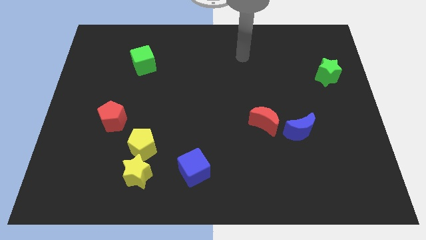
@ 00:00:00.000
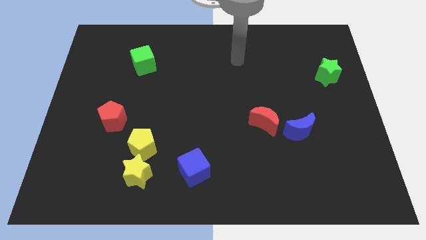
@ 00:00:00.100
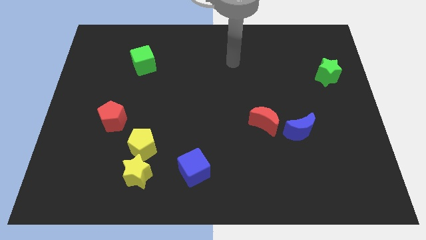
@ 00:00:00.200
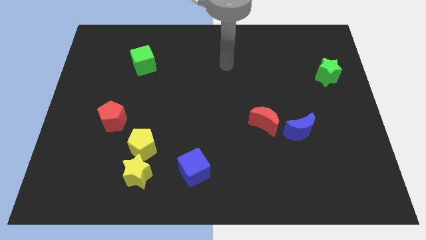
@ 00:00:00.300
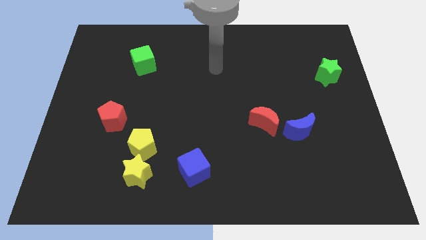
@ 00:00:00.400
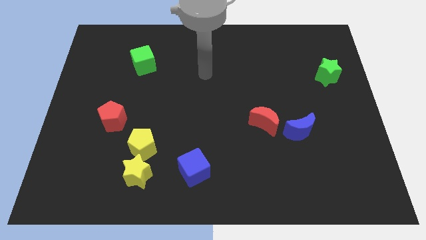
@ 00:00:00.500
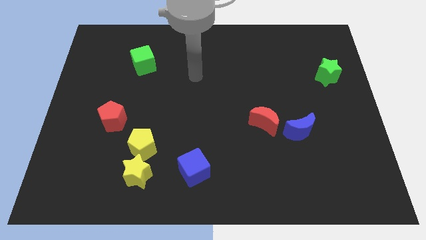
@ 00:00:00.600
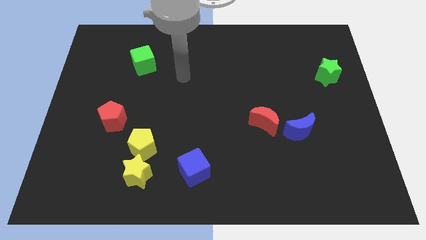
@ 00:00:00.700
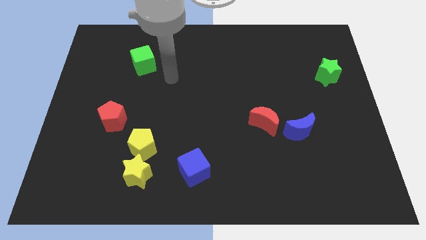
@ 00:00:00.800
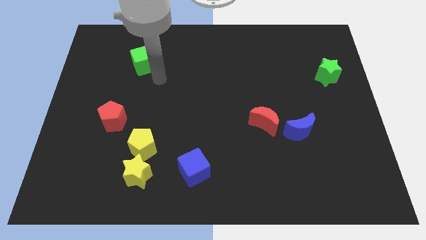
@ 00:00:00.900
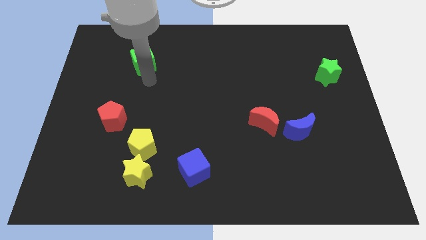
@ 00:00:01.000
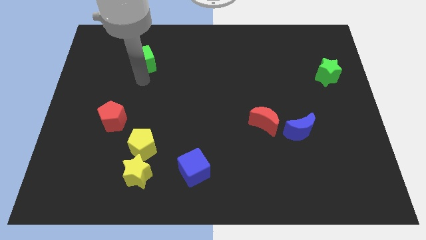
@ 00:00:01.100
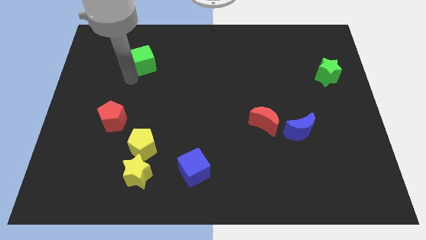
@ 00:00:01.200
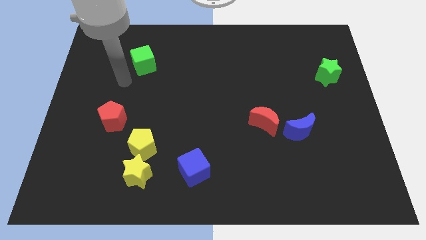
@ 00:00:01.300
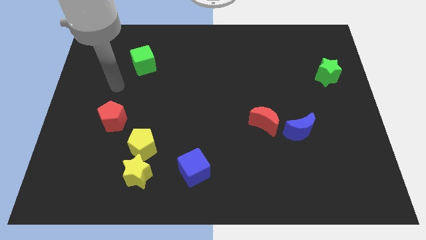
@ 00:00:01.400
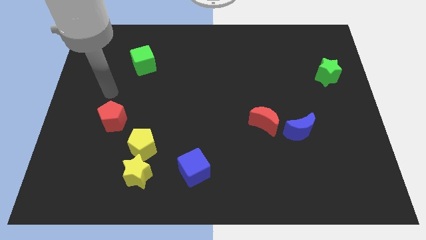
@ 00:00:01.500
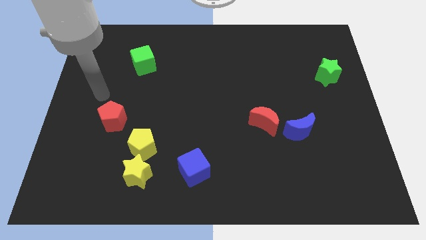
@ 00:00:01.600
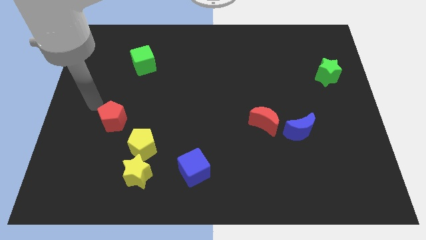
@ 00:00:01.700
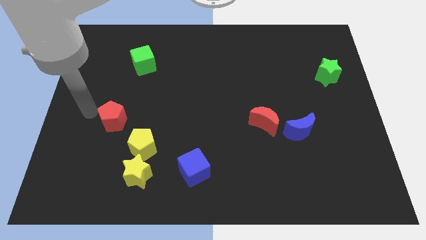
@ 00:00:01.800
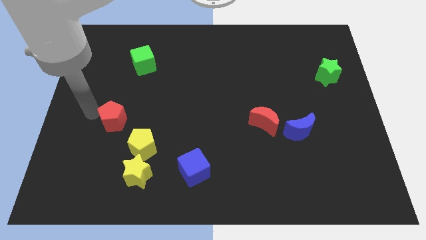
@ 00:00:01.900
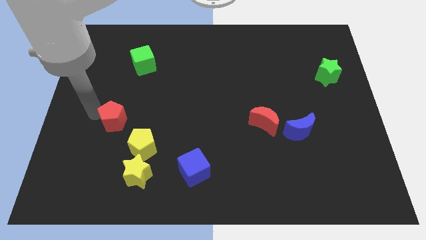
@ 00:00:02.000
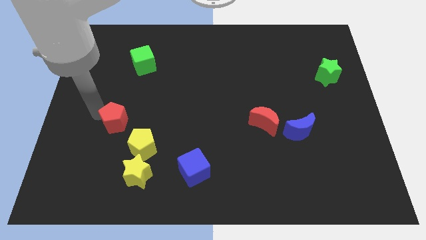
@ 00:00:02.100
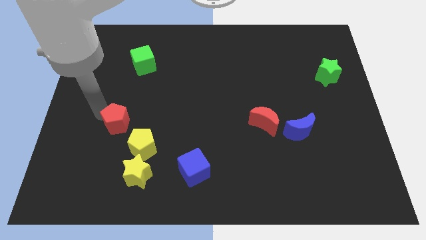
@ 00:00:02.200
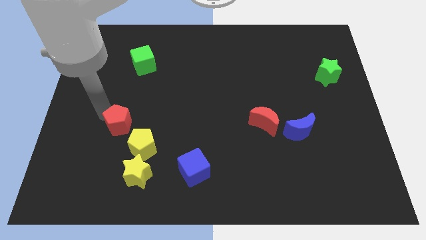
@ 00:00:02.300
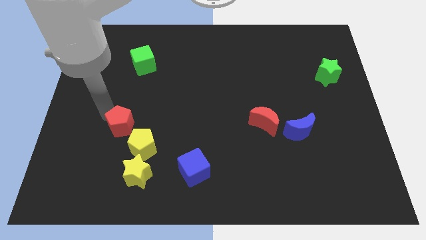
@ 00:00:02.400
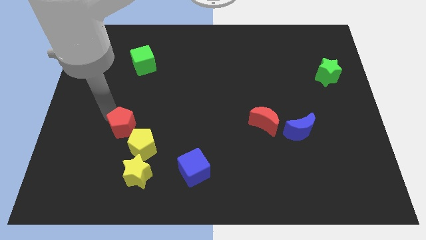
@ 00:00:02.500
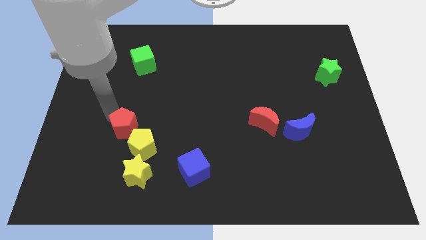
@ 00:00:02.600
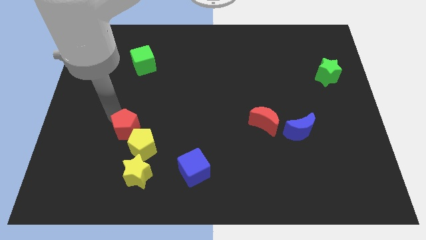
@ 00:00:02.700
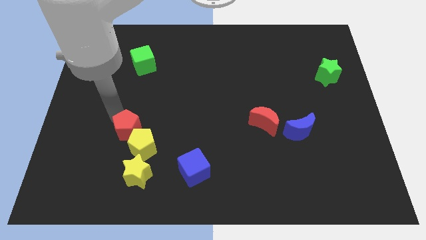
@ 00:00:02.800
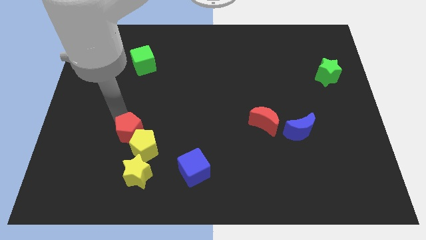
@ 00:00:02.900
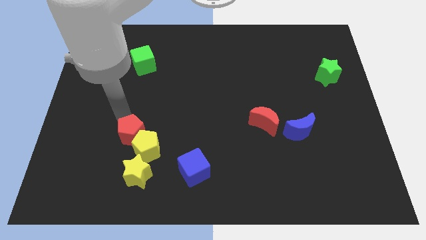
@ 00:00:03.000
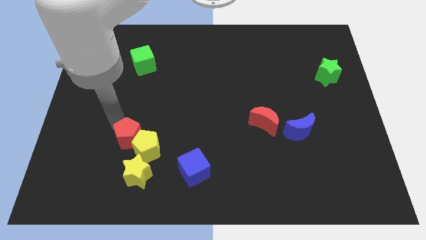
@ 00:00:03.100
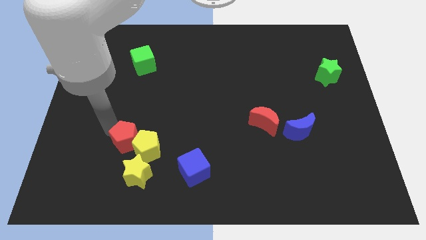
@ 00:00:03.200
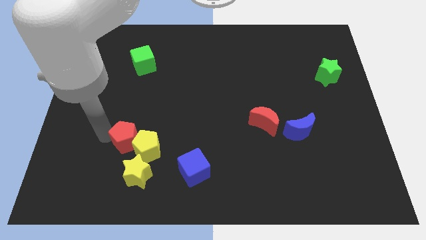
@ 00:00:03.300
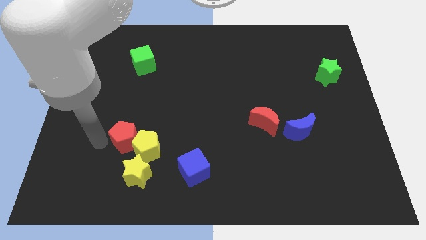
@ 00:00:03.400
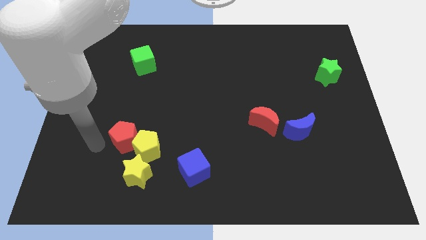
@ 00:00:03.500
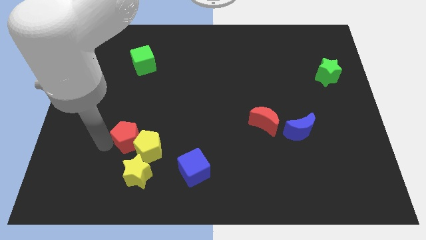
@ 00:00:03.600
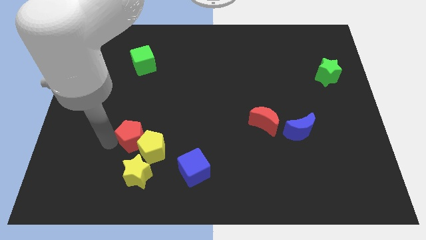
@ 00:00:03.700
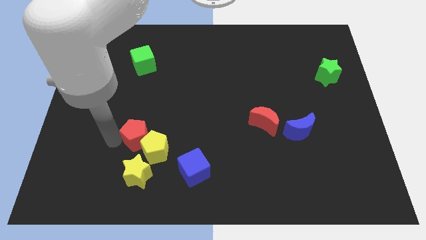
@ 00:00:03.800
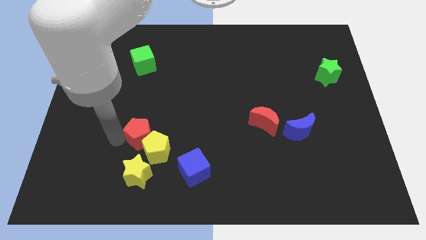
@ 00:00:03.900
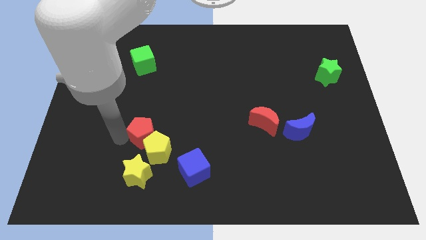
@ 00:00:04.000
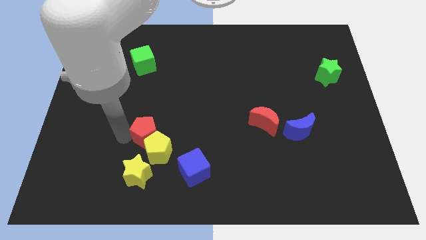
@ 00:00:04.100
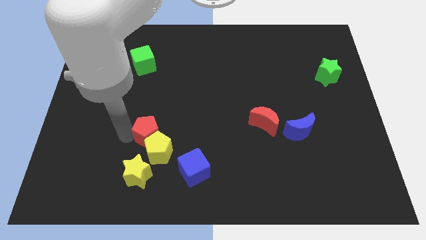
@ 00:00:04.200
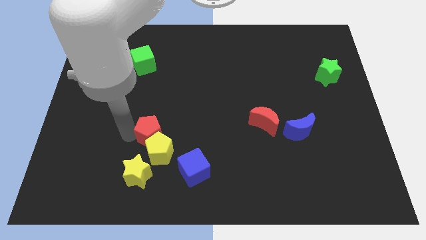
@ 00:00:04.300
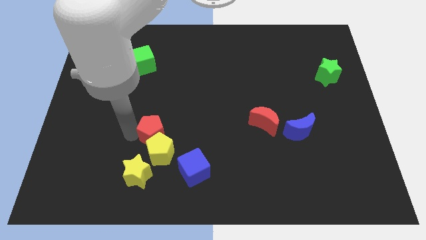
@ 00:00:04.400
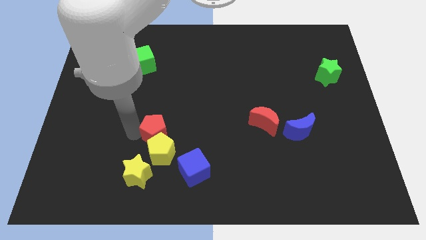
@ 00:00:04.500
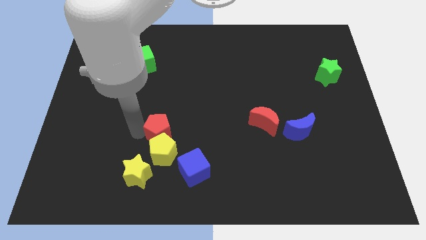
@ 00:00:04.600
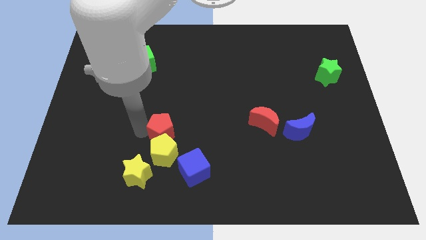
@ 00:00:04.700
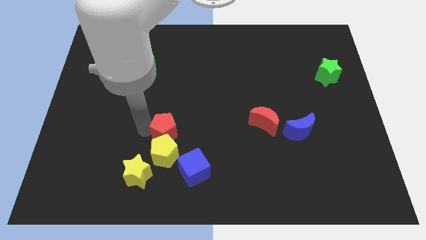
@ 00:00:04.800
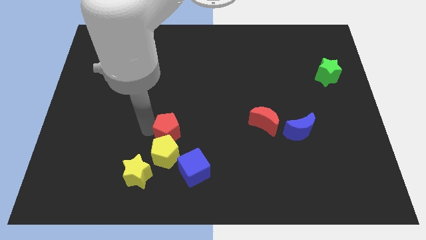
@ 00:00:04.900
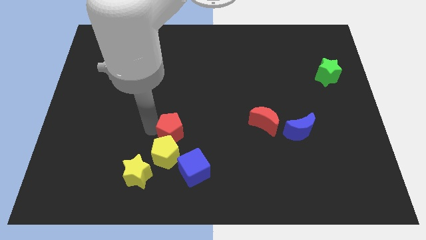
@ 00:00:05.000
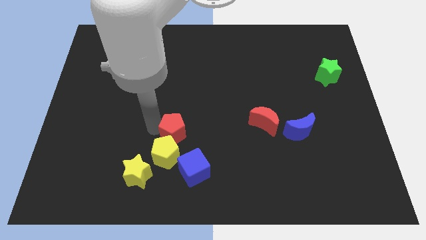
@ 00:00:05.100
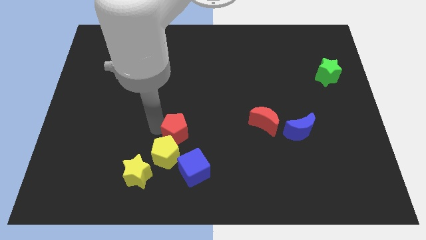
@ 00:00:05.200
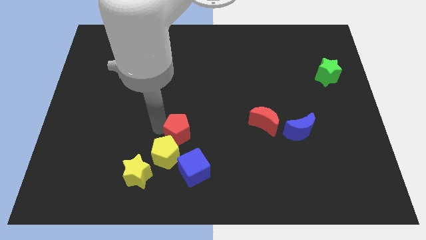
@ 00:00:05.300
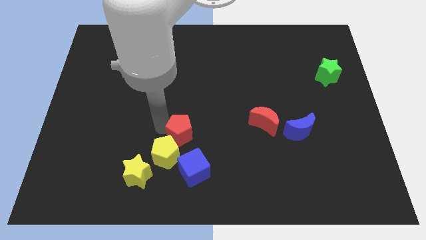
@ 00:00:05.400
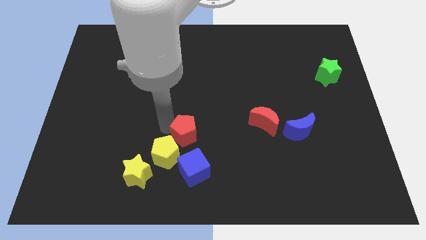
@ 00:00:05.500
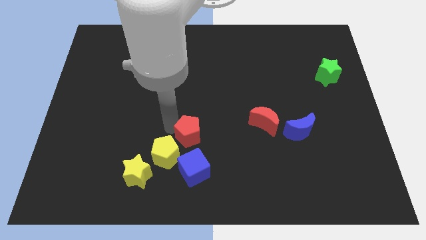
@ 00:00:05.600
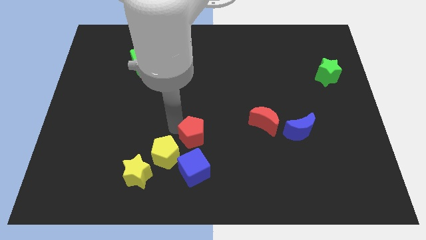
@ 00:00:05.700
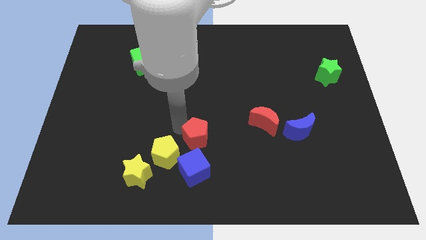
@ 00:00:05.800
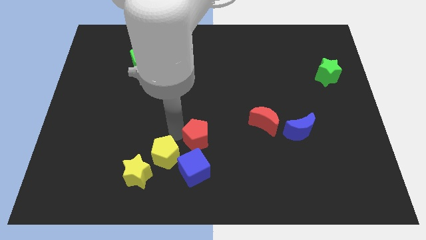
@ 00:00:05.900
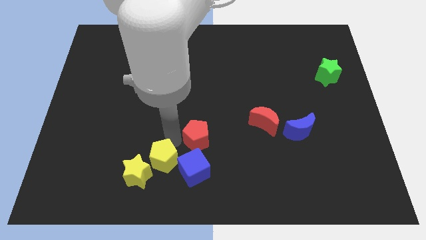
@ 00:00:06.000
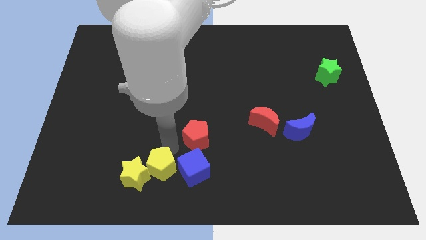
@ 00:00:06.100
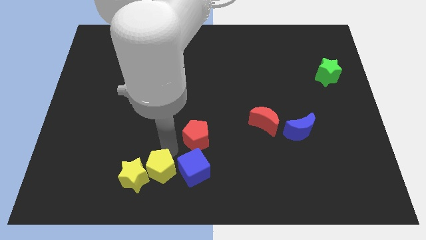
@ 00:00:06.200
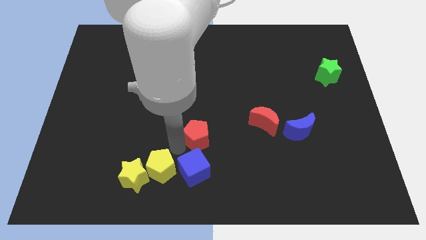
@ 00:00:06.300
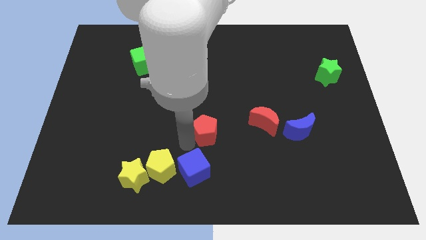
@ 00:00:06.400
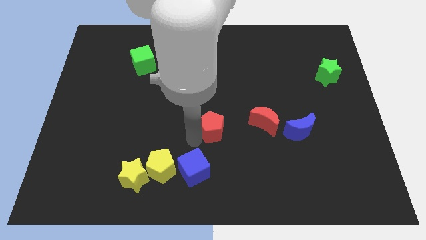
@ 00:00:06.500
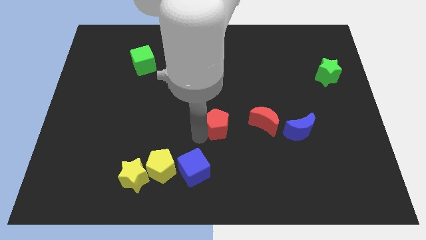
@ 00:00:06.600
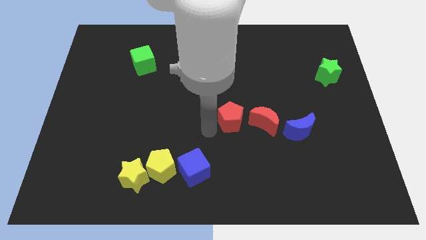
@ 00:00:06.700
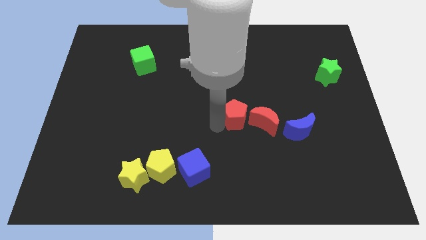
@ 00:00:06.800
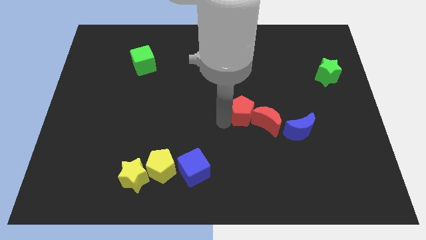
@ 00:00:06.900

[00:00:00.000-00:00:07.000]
put the red pentagon close to the red moon

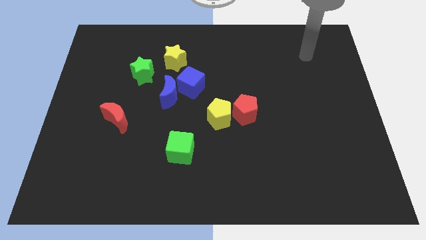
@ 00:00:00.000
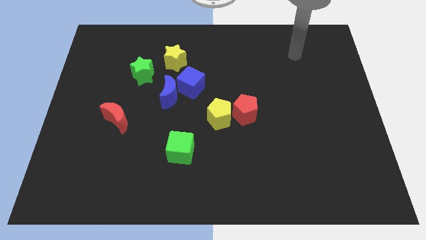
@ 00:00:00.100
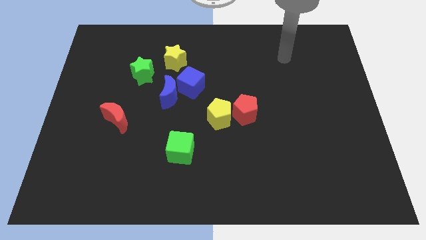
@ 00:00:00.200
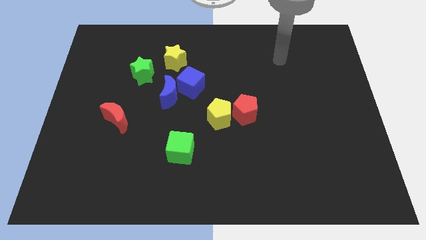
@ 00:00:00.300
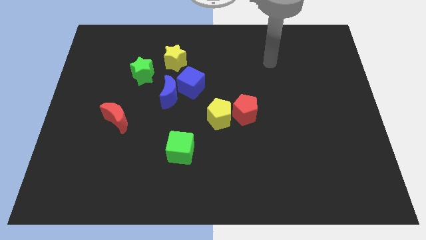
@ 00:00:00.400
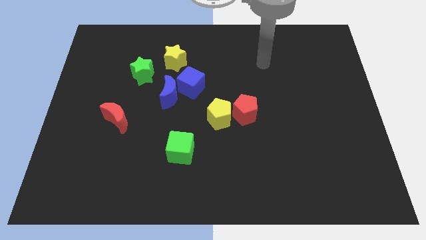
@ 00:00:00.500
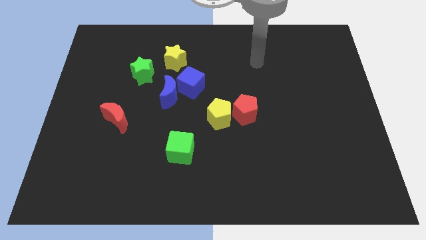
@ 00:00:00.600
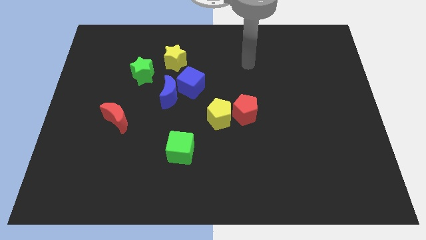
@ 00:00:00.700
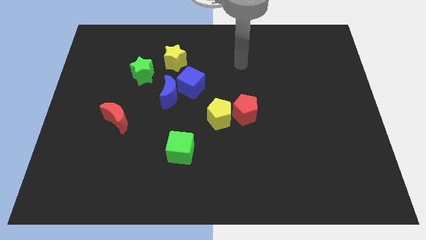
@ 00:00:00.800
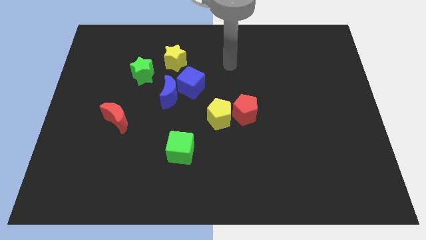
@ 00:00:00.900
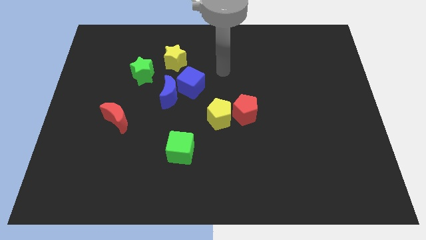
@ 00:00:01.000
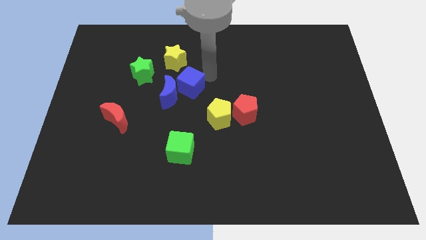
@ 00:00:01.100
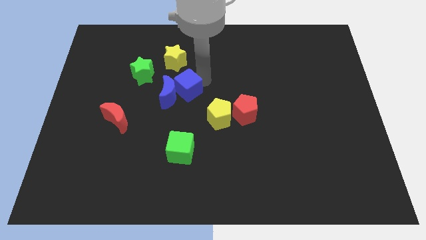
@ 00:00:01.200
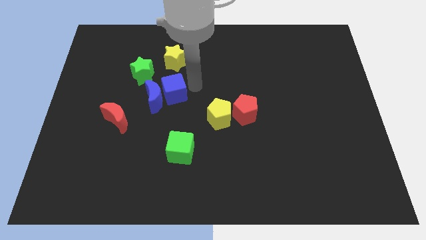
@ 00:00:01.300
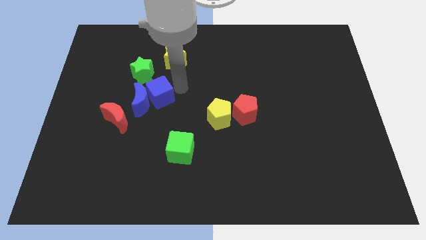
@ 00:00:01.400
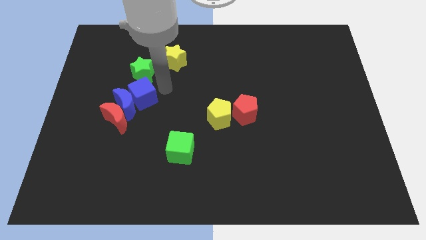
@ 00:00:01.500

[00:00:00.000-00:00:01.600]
put the blue moon to the red moon
